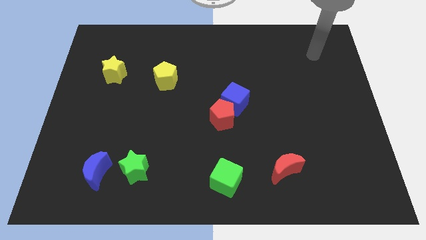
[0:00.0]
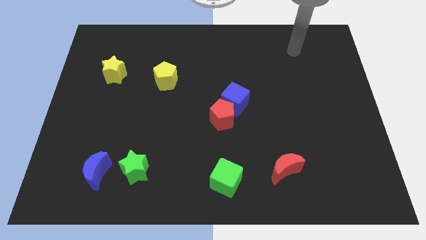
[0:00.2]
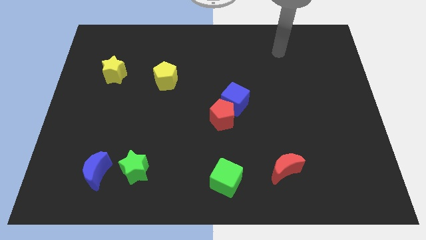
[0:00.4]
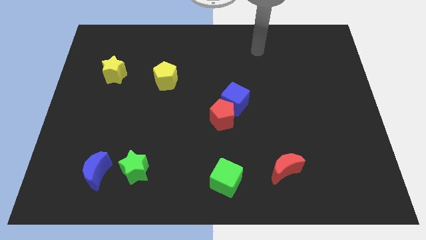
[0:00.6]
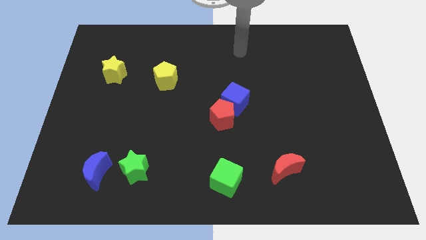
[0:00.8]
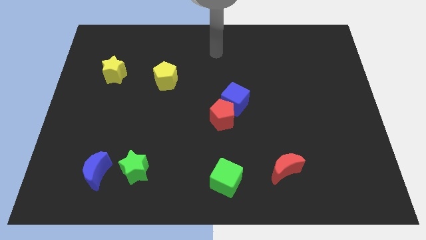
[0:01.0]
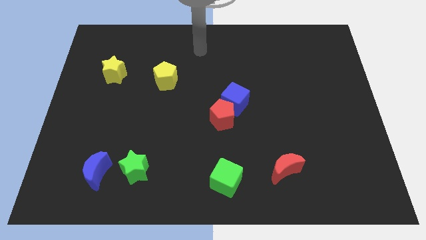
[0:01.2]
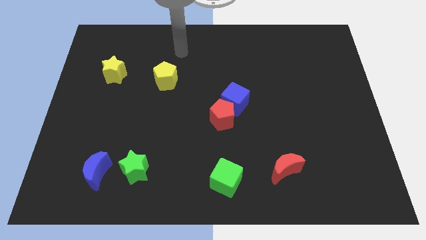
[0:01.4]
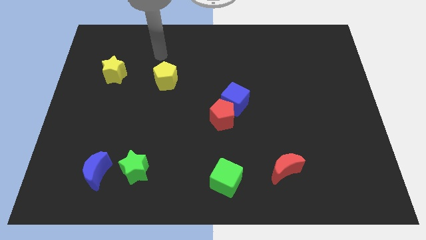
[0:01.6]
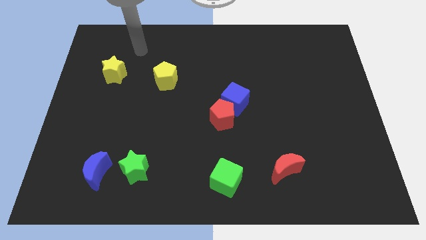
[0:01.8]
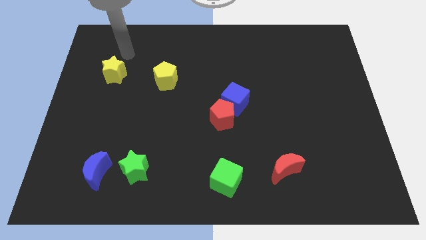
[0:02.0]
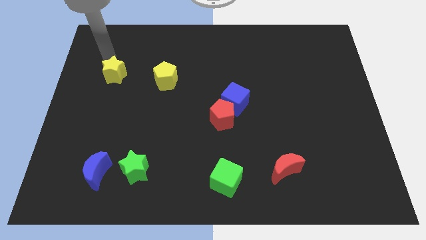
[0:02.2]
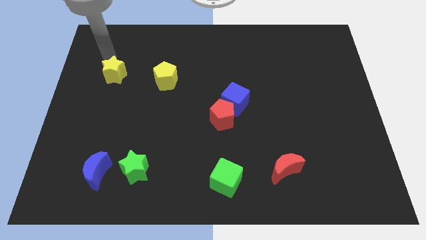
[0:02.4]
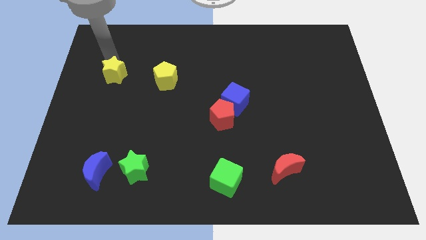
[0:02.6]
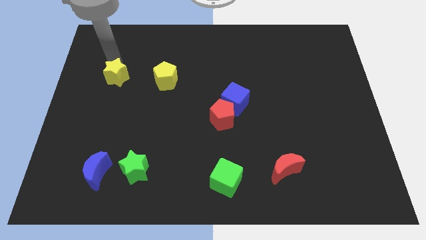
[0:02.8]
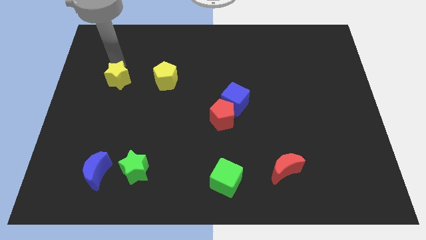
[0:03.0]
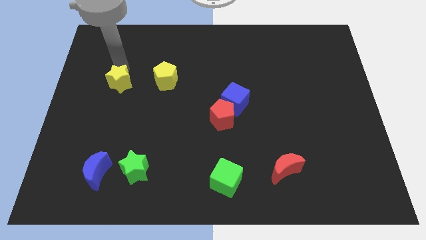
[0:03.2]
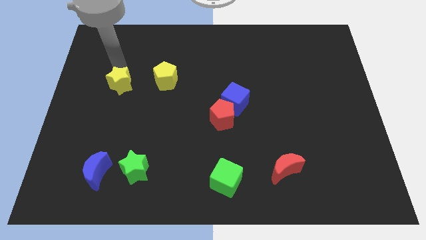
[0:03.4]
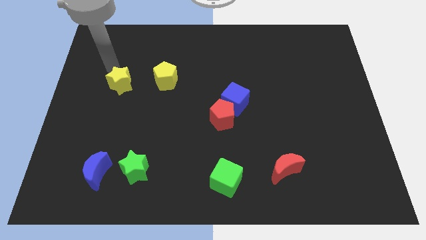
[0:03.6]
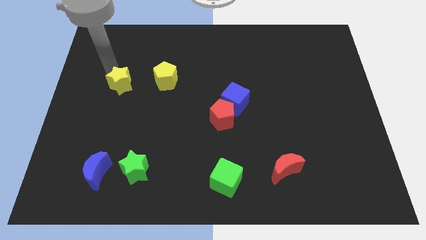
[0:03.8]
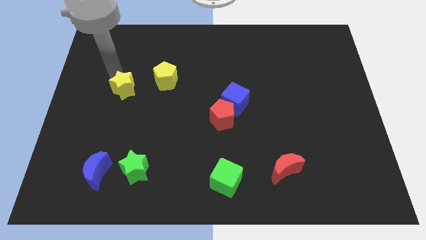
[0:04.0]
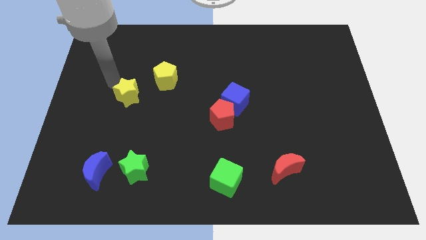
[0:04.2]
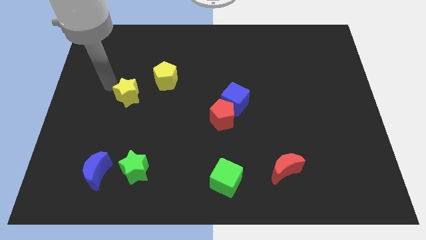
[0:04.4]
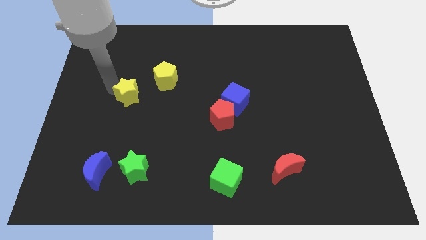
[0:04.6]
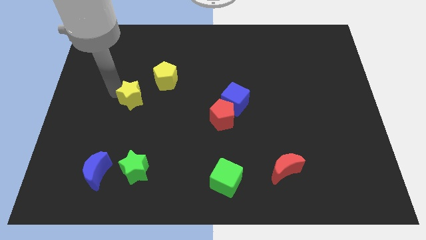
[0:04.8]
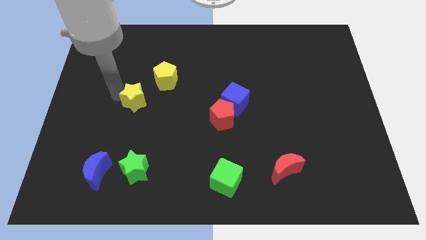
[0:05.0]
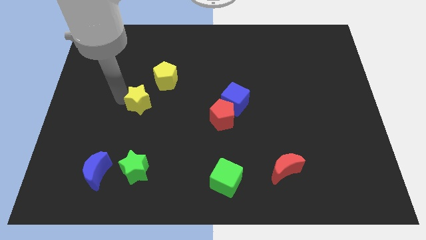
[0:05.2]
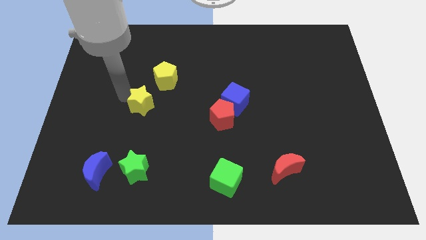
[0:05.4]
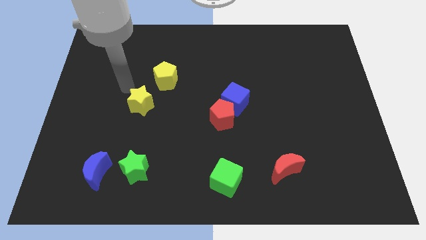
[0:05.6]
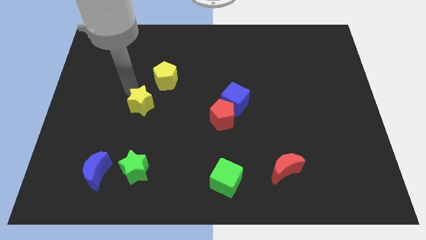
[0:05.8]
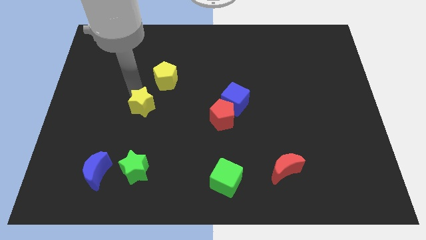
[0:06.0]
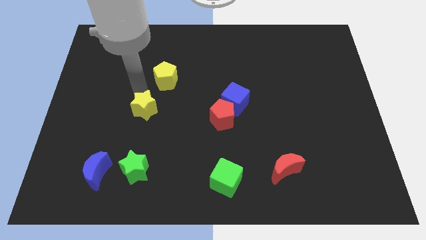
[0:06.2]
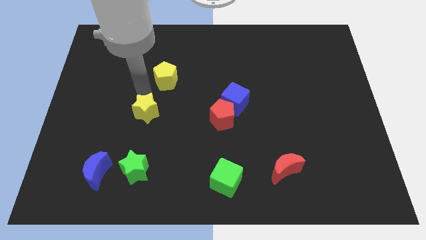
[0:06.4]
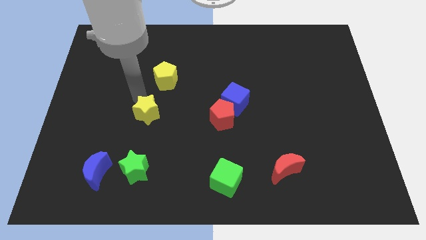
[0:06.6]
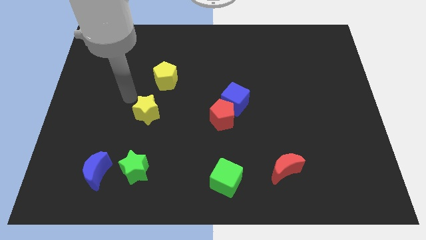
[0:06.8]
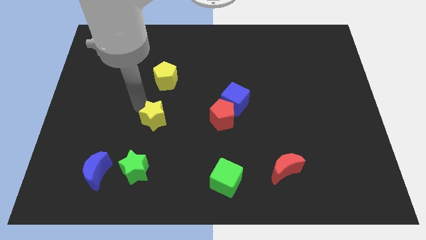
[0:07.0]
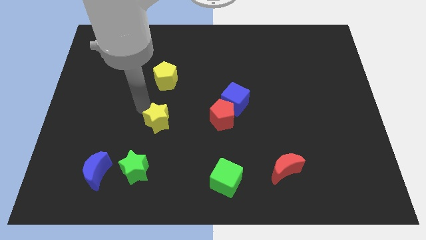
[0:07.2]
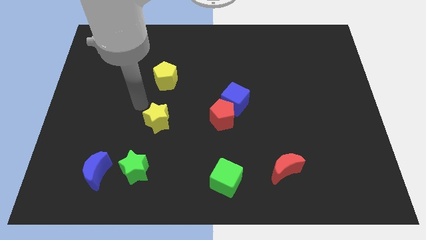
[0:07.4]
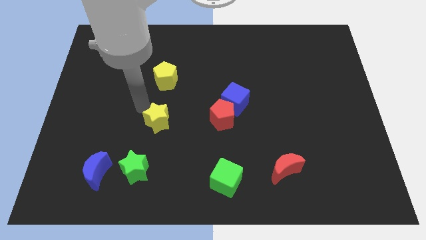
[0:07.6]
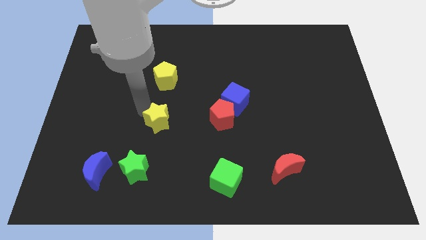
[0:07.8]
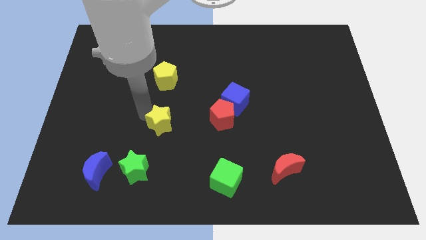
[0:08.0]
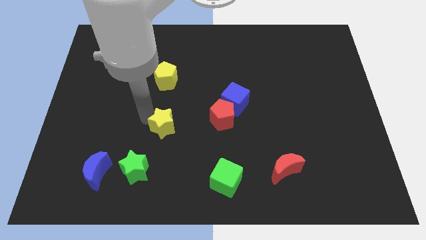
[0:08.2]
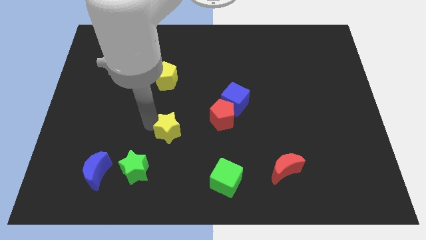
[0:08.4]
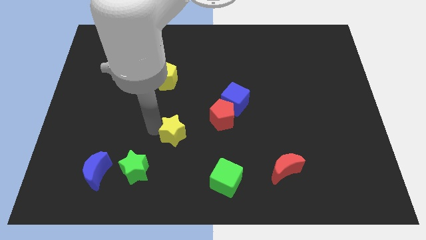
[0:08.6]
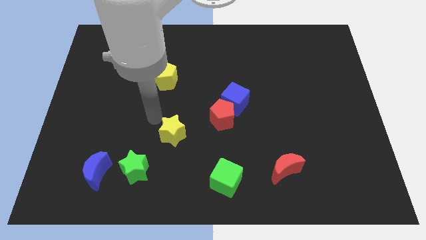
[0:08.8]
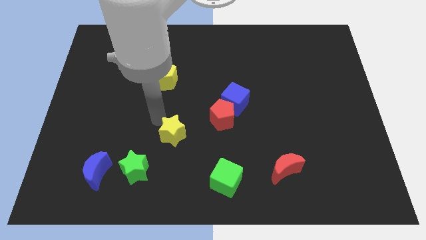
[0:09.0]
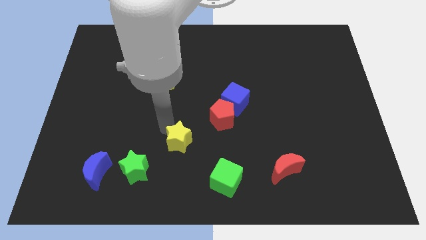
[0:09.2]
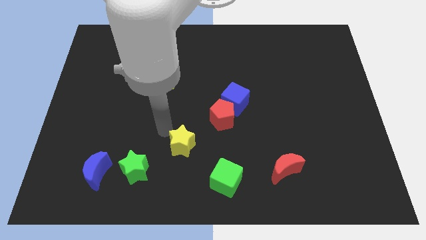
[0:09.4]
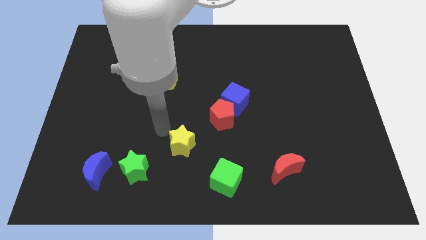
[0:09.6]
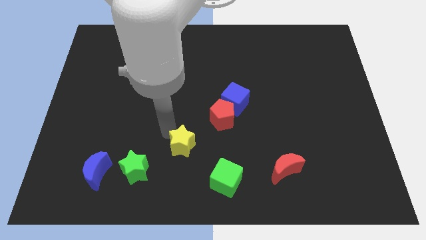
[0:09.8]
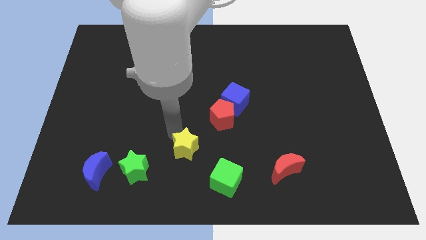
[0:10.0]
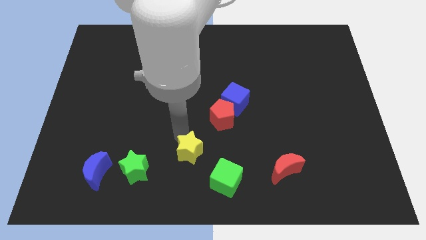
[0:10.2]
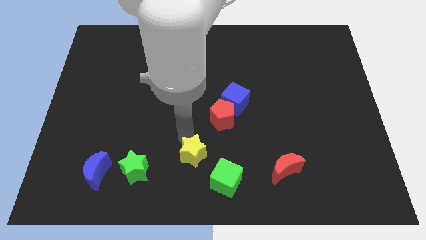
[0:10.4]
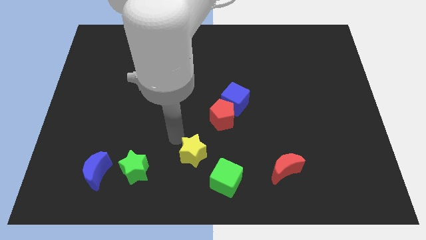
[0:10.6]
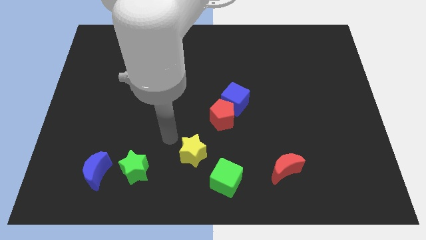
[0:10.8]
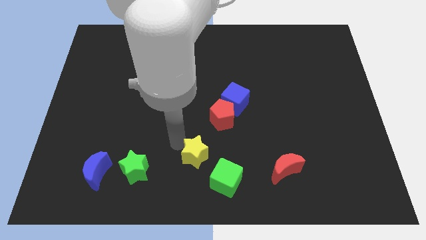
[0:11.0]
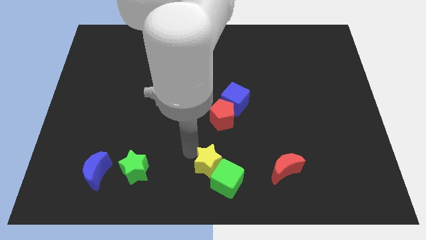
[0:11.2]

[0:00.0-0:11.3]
push the yellow star towards the green cube

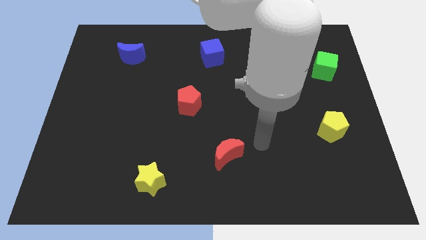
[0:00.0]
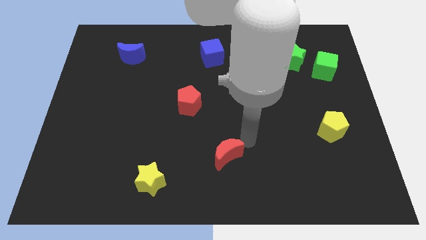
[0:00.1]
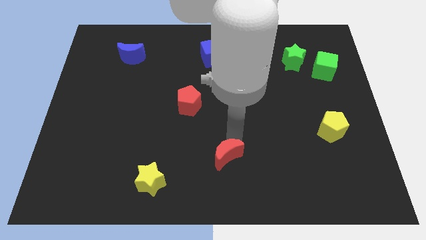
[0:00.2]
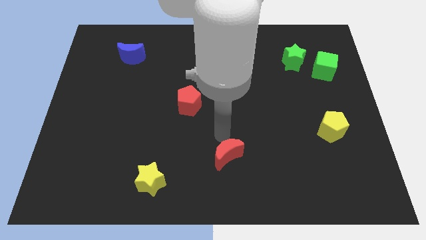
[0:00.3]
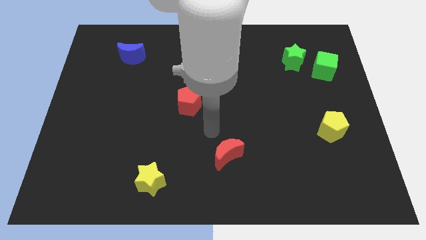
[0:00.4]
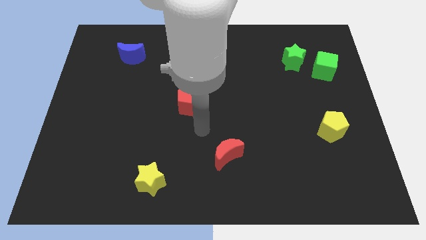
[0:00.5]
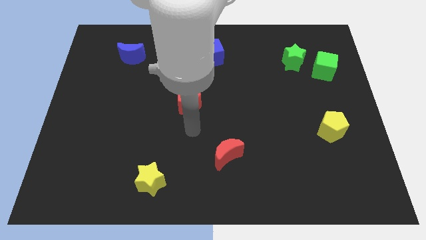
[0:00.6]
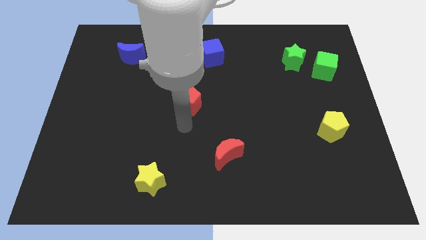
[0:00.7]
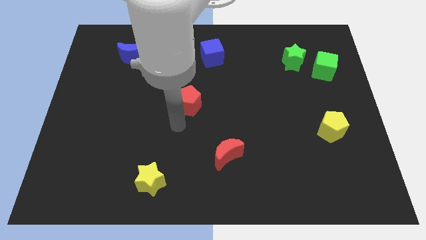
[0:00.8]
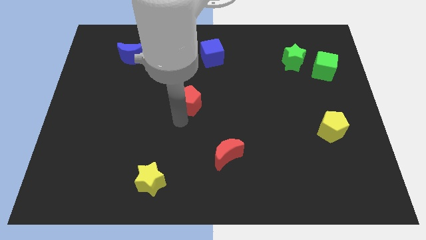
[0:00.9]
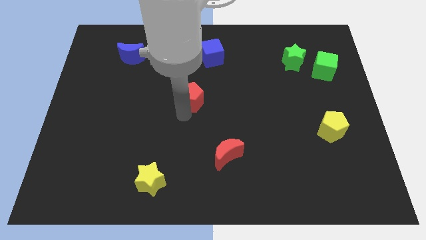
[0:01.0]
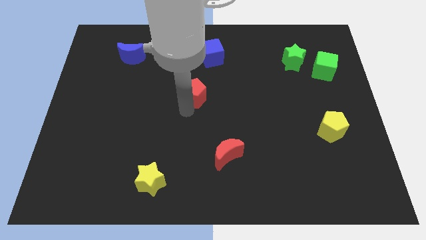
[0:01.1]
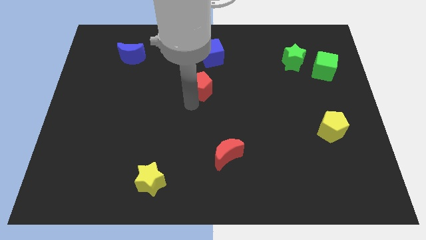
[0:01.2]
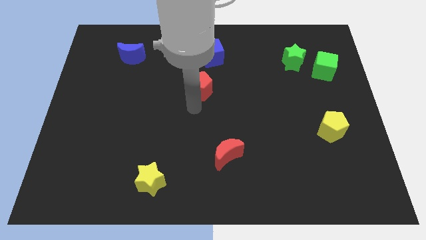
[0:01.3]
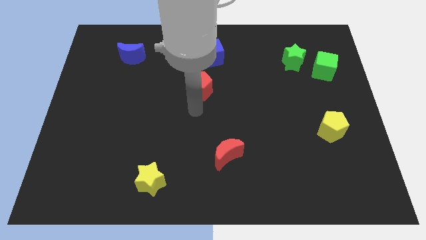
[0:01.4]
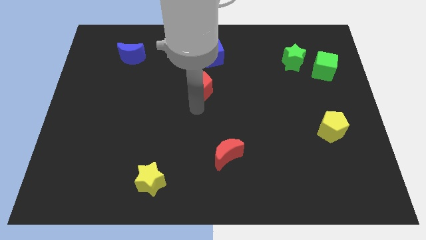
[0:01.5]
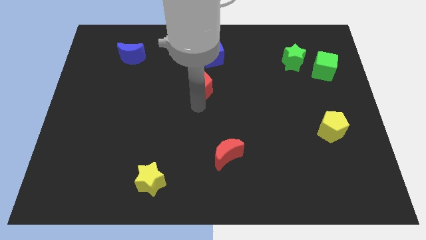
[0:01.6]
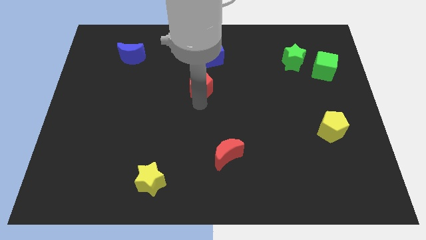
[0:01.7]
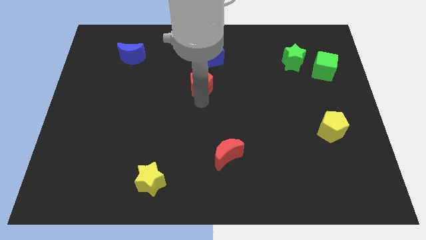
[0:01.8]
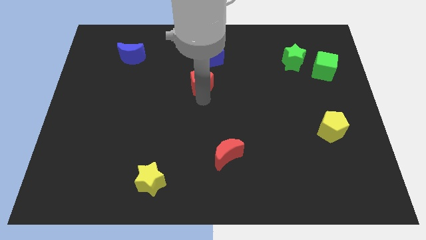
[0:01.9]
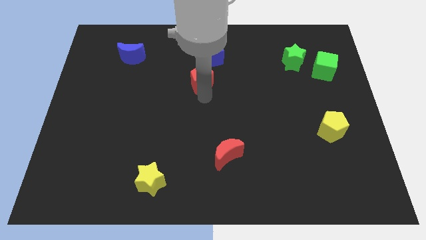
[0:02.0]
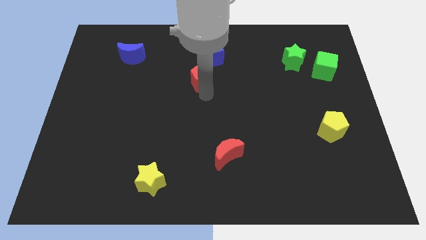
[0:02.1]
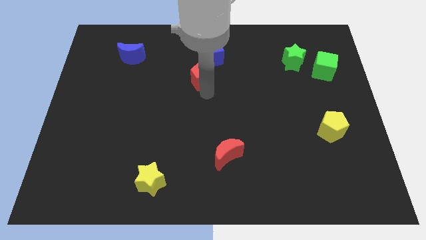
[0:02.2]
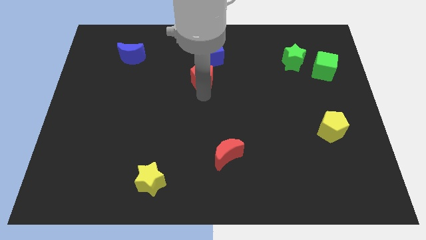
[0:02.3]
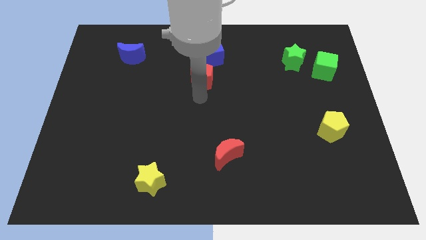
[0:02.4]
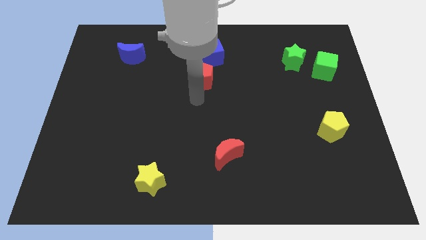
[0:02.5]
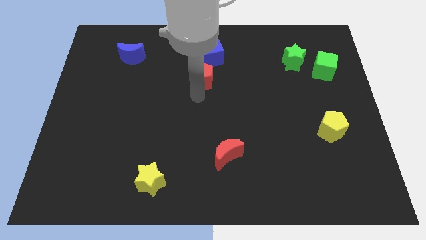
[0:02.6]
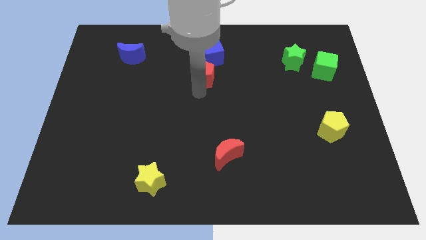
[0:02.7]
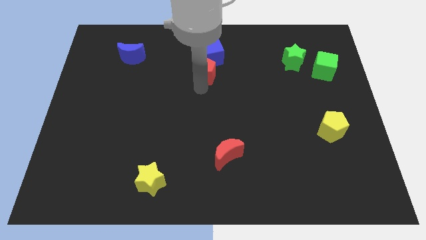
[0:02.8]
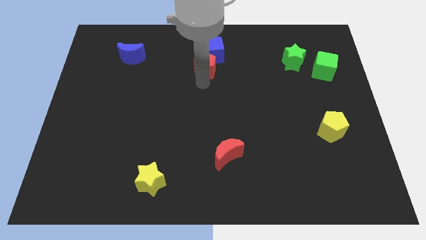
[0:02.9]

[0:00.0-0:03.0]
push the red pentagon to the blue cube
